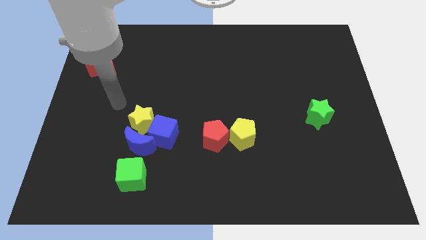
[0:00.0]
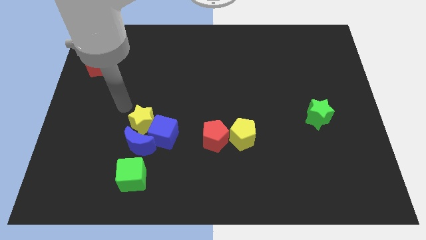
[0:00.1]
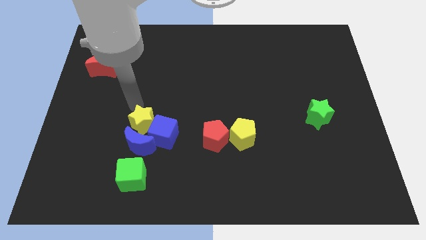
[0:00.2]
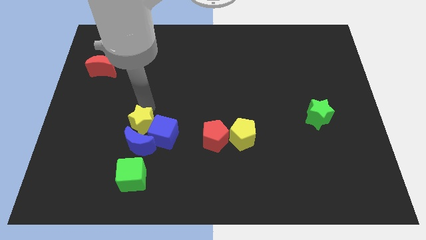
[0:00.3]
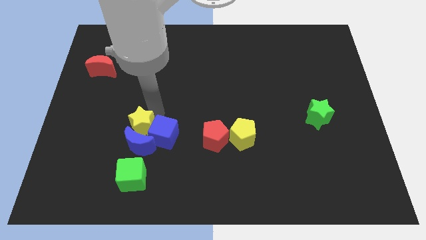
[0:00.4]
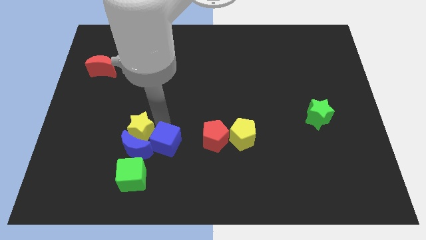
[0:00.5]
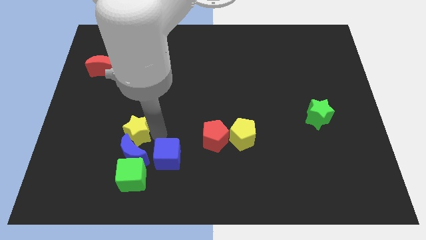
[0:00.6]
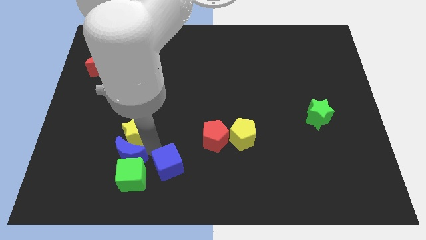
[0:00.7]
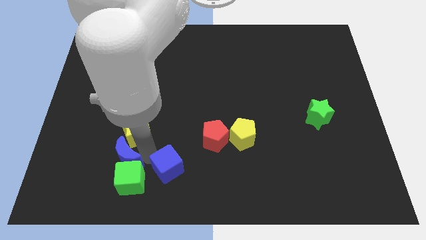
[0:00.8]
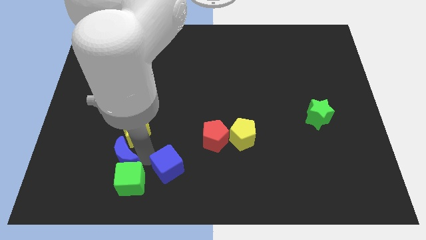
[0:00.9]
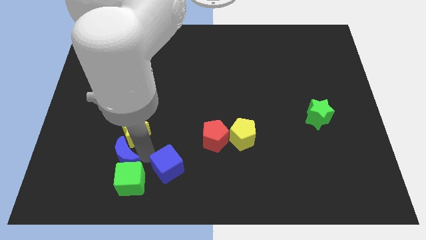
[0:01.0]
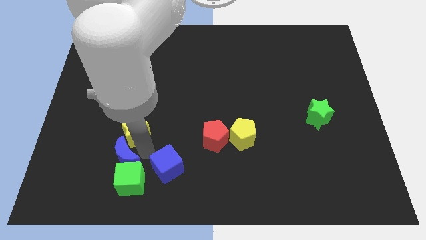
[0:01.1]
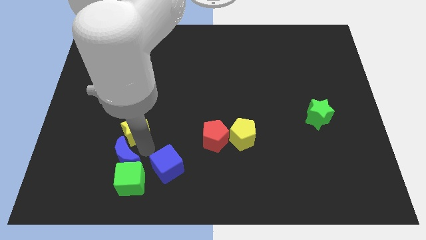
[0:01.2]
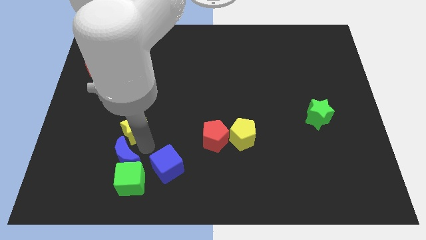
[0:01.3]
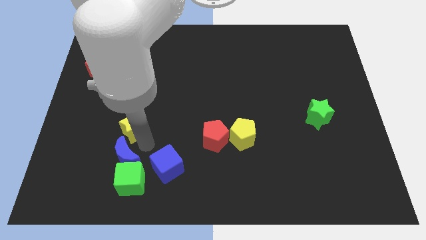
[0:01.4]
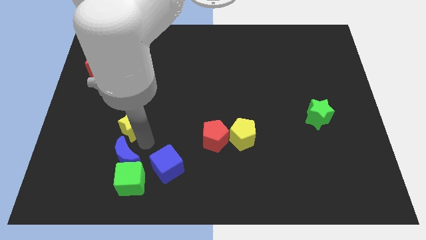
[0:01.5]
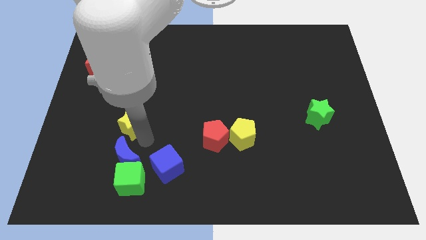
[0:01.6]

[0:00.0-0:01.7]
pull the yellow star apart from the blue moon and blue cube

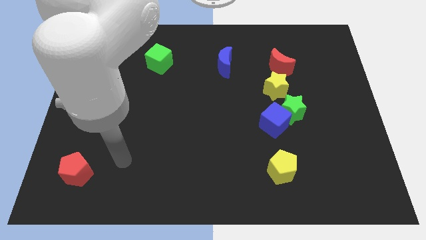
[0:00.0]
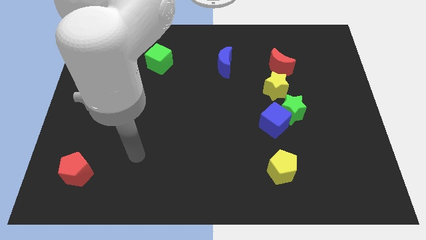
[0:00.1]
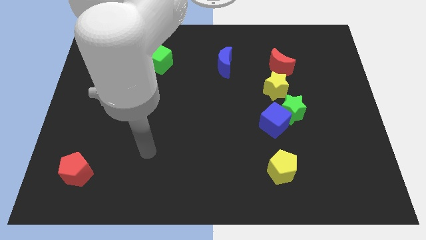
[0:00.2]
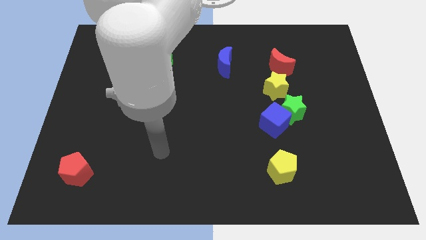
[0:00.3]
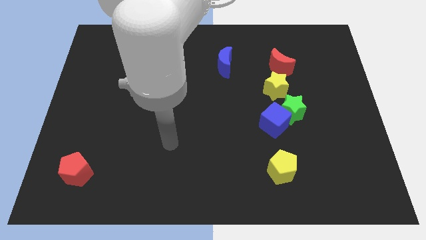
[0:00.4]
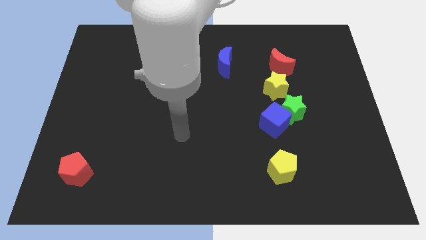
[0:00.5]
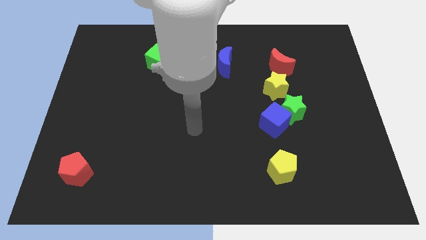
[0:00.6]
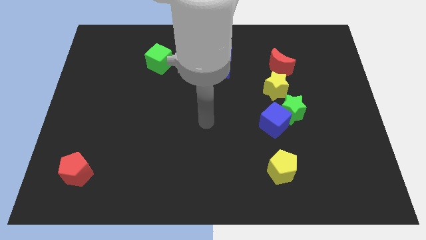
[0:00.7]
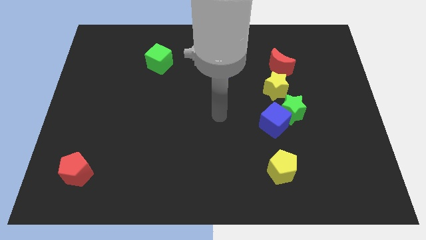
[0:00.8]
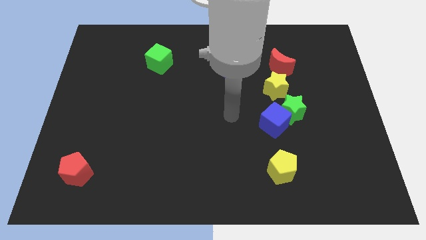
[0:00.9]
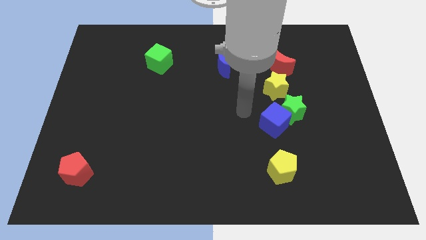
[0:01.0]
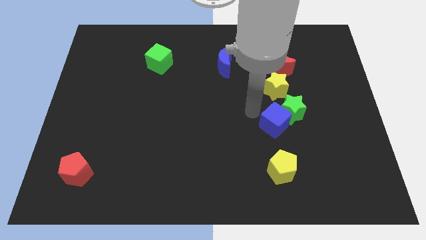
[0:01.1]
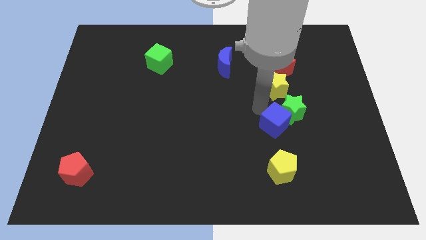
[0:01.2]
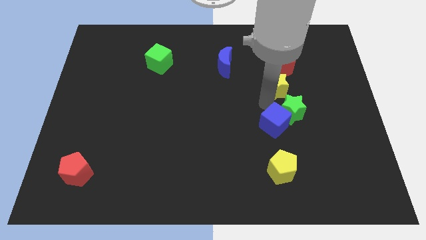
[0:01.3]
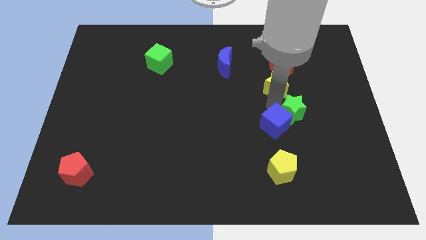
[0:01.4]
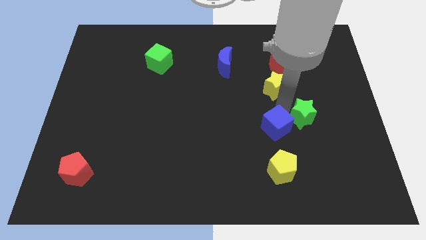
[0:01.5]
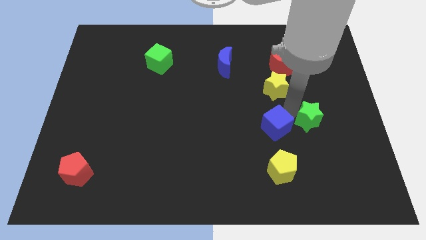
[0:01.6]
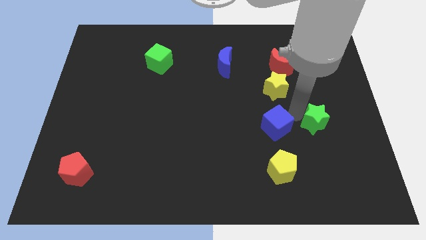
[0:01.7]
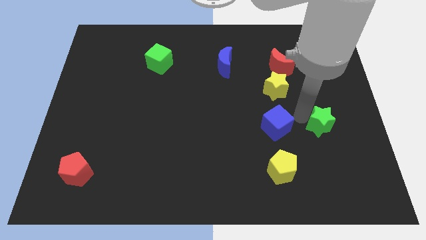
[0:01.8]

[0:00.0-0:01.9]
pull the green star apart from the blue cube and yellow star

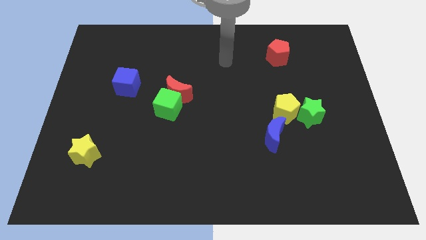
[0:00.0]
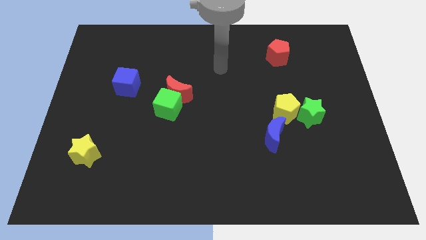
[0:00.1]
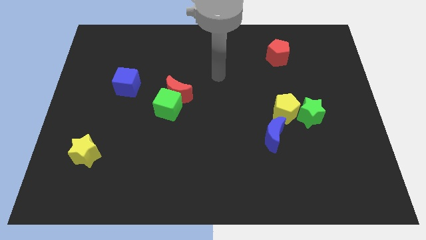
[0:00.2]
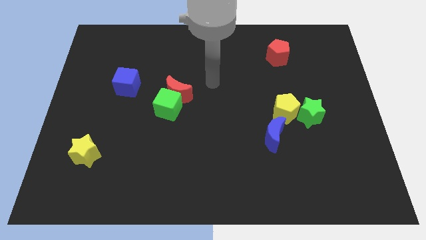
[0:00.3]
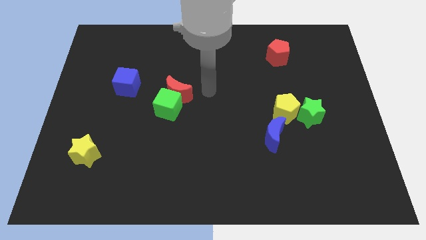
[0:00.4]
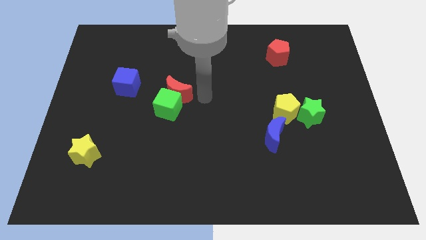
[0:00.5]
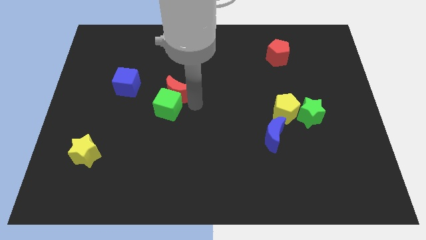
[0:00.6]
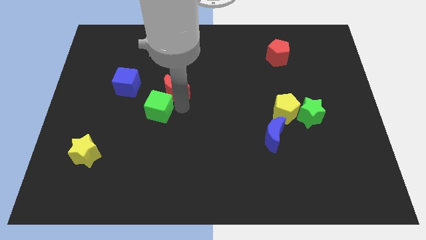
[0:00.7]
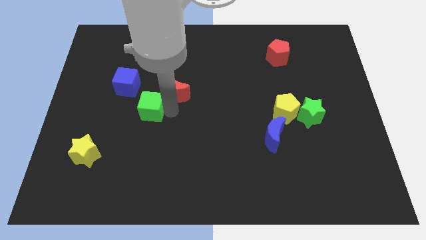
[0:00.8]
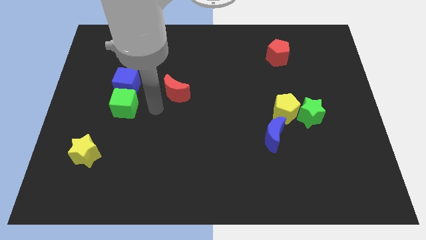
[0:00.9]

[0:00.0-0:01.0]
separate the red moon from the green cube

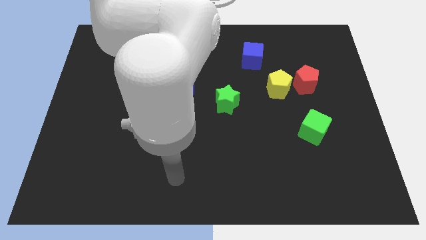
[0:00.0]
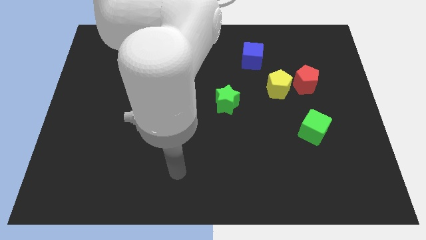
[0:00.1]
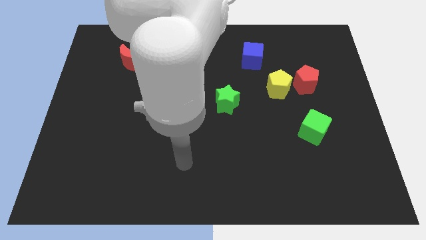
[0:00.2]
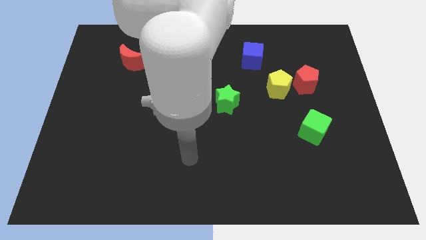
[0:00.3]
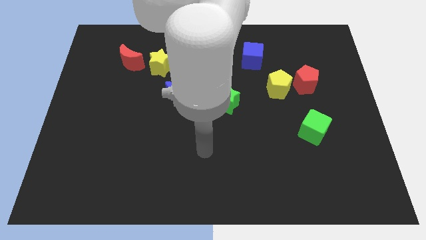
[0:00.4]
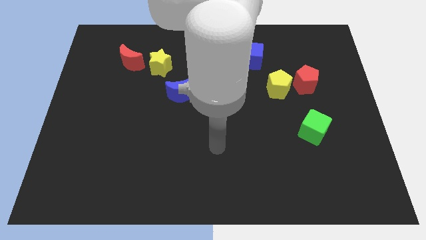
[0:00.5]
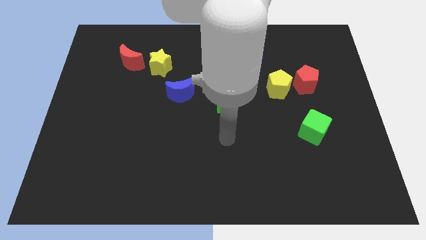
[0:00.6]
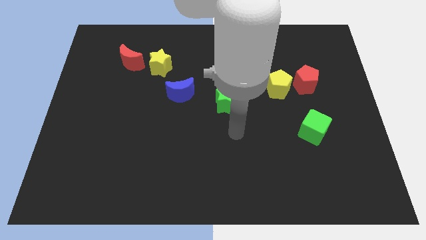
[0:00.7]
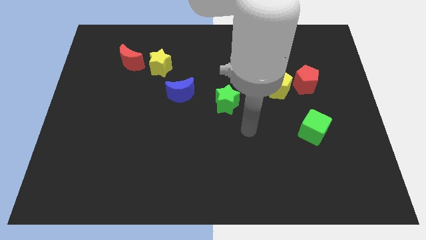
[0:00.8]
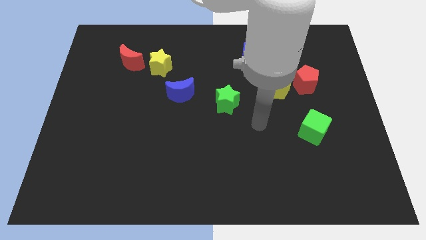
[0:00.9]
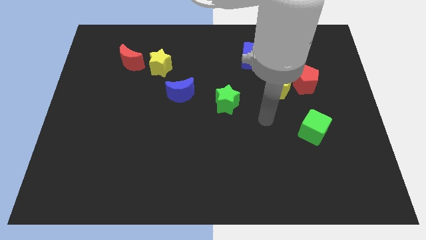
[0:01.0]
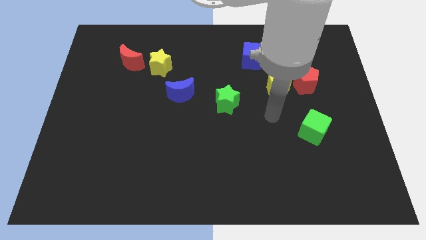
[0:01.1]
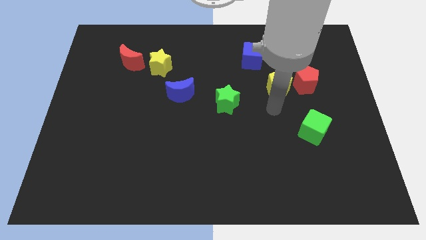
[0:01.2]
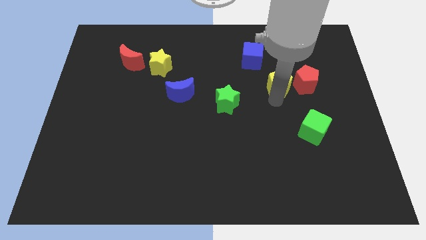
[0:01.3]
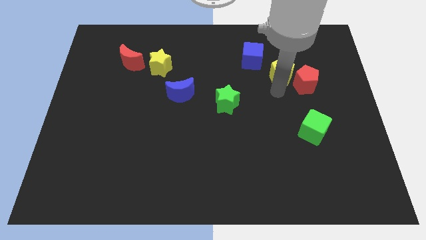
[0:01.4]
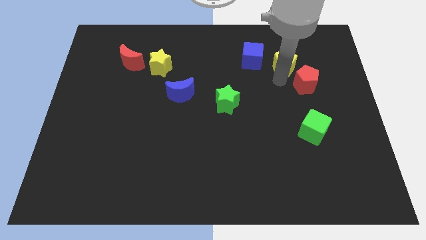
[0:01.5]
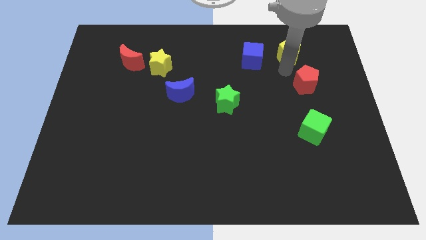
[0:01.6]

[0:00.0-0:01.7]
pull the red pentagon apart from the yellow pentagon

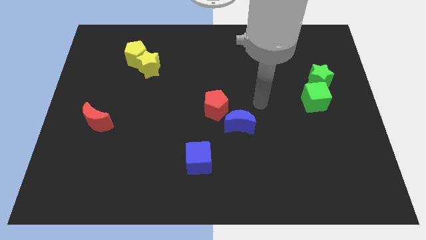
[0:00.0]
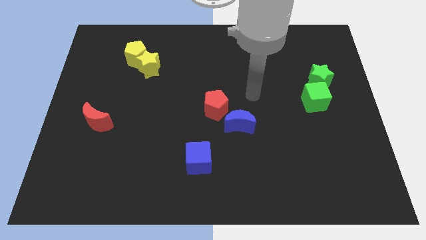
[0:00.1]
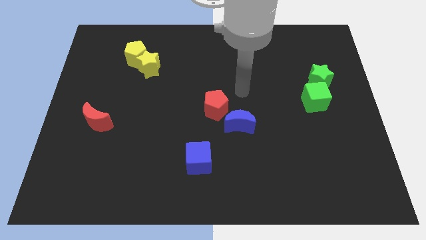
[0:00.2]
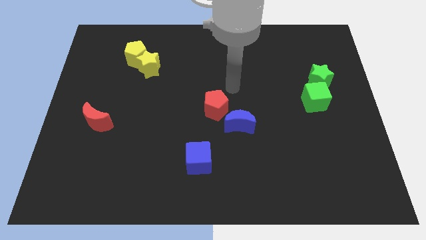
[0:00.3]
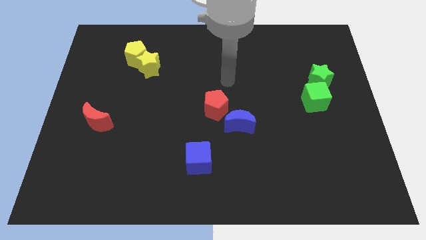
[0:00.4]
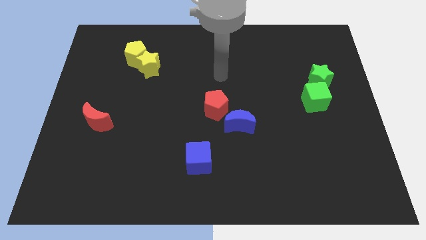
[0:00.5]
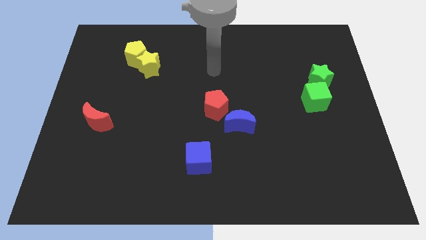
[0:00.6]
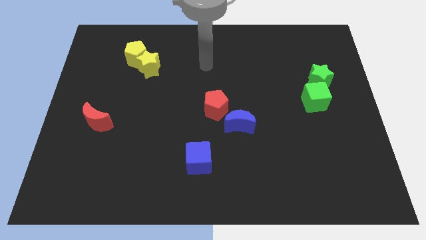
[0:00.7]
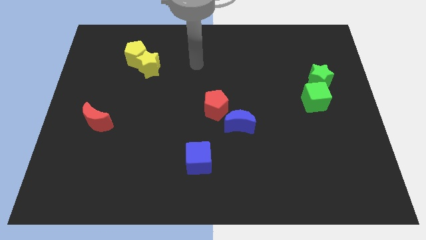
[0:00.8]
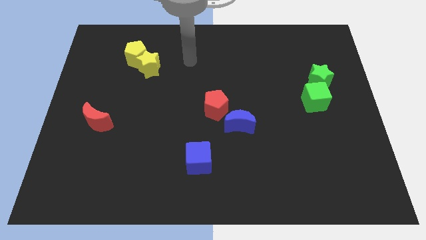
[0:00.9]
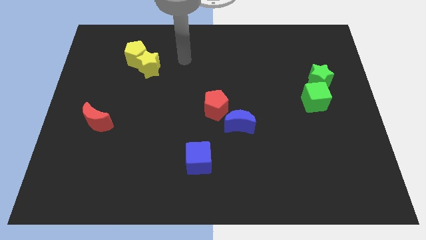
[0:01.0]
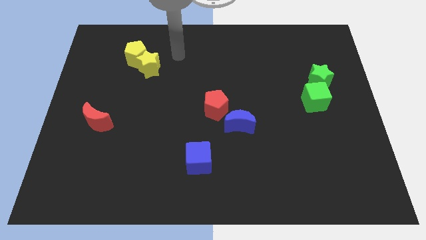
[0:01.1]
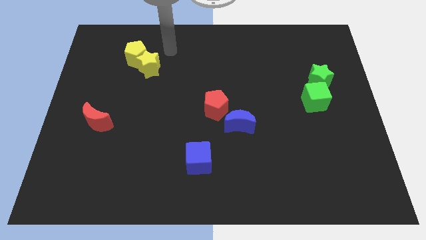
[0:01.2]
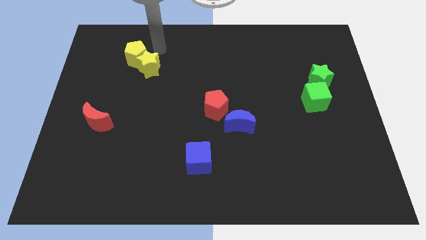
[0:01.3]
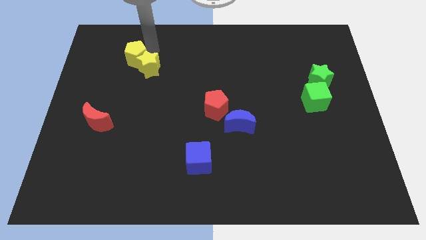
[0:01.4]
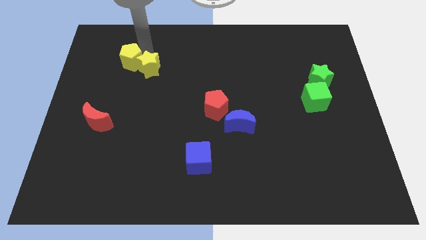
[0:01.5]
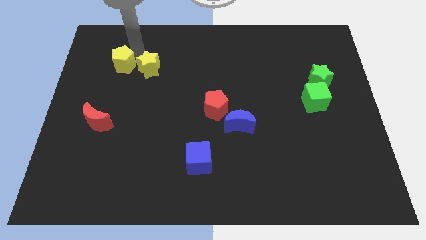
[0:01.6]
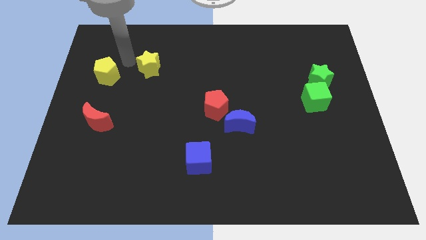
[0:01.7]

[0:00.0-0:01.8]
pull the yellow star apart from the yellow pentagon

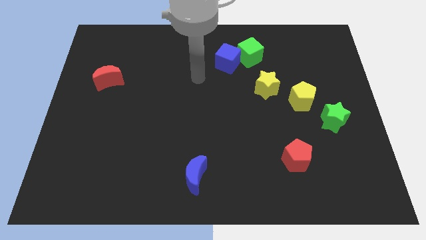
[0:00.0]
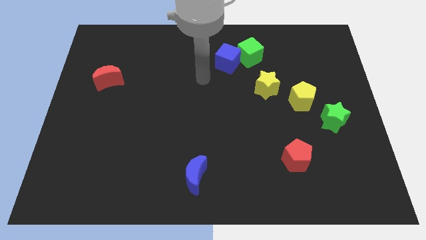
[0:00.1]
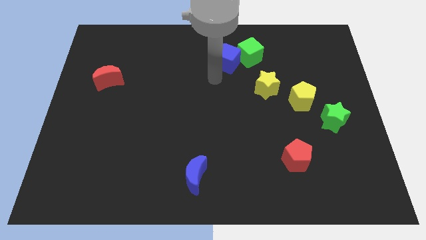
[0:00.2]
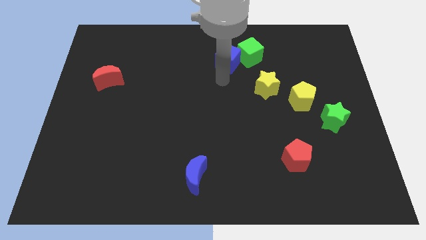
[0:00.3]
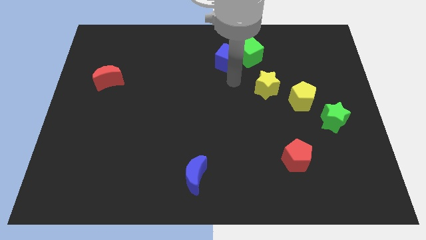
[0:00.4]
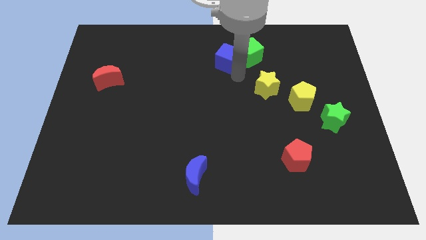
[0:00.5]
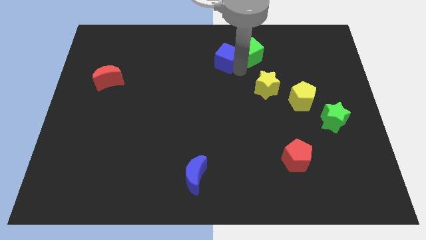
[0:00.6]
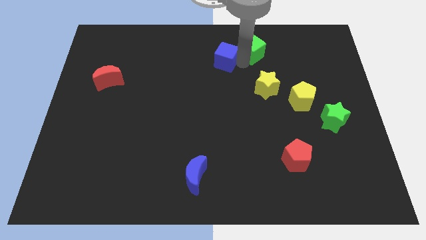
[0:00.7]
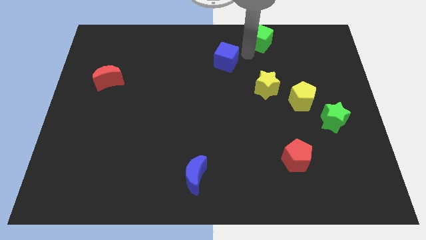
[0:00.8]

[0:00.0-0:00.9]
separate the blue cube from the green cube

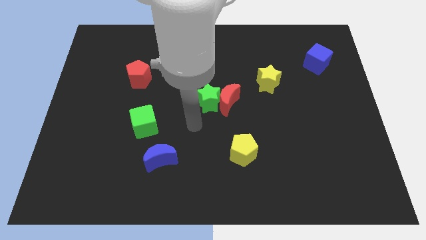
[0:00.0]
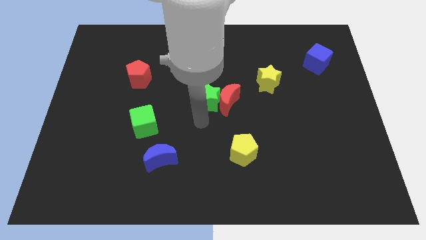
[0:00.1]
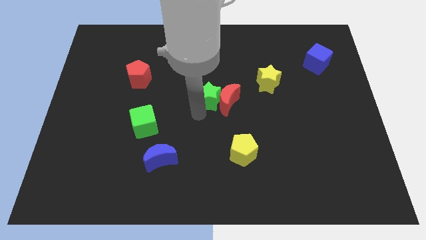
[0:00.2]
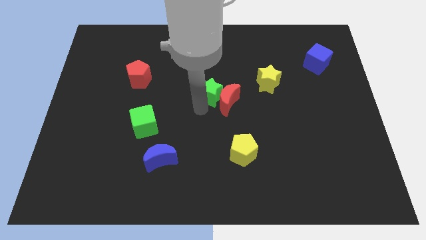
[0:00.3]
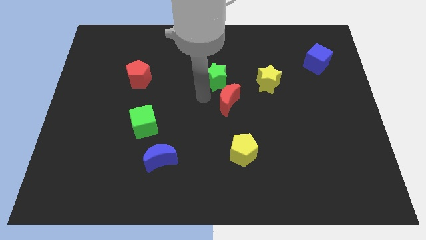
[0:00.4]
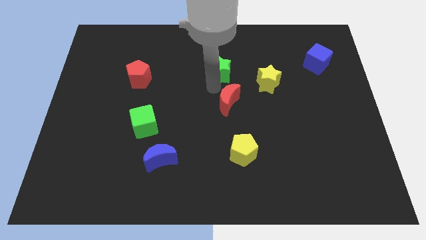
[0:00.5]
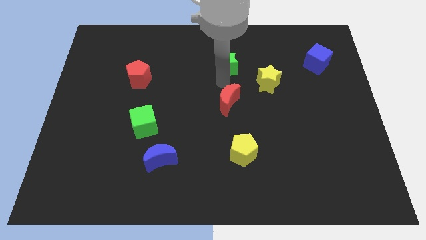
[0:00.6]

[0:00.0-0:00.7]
separate the red moon from the green star
